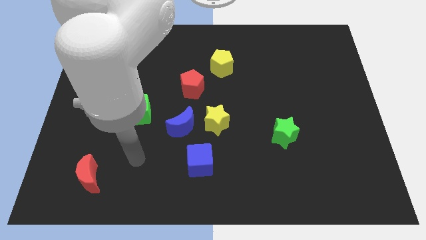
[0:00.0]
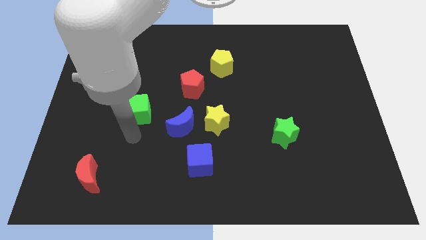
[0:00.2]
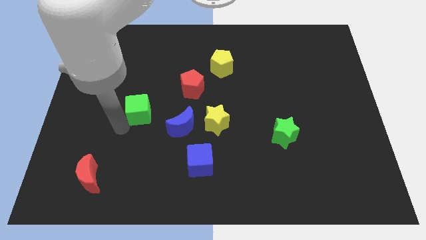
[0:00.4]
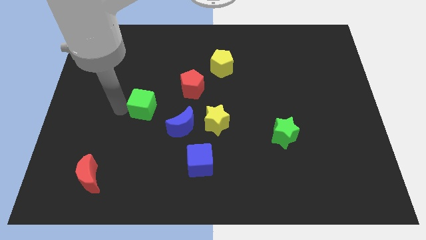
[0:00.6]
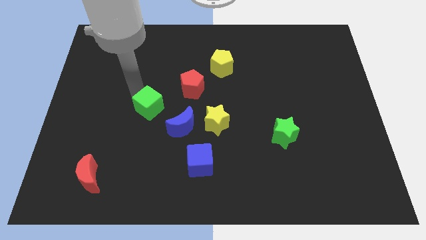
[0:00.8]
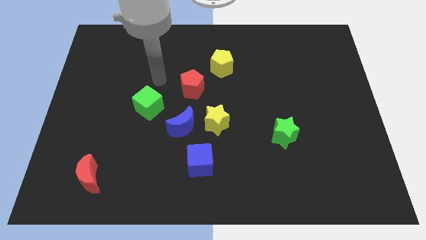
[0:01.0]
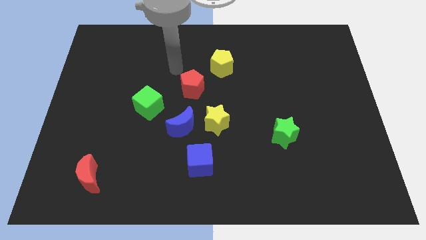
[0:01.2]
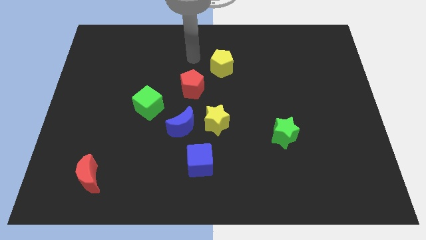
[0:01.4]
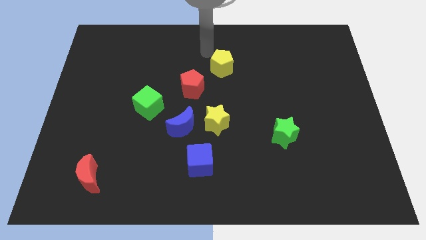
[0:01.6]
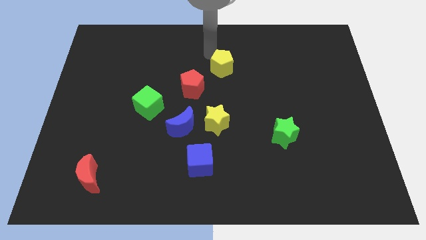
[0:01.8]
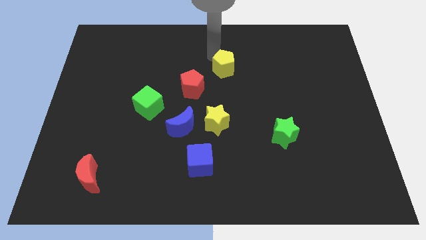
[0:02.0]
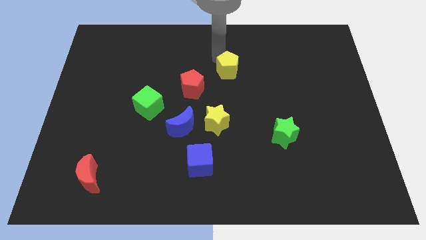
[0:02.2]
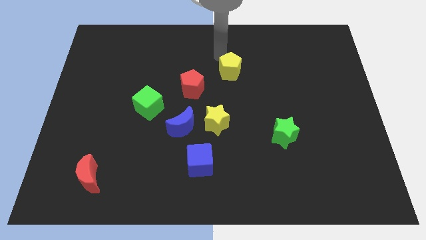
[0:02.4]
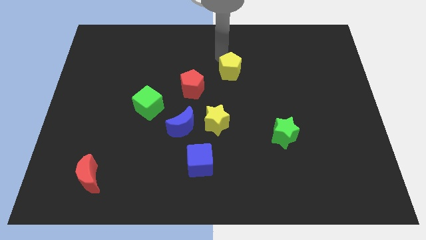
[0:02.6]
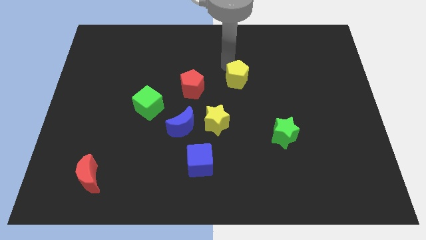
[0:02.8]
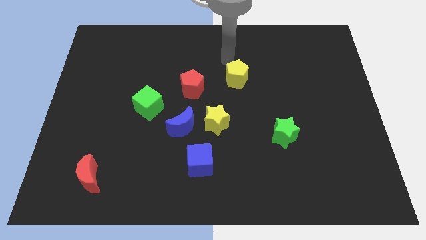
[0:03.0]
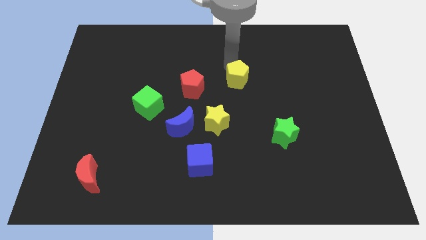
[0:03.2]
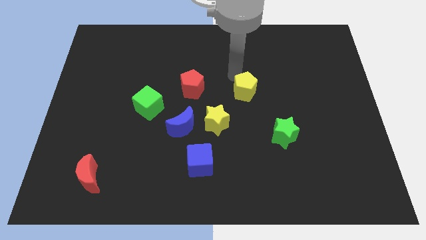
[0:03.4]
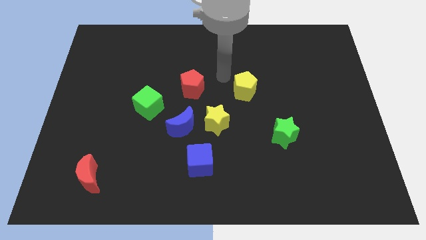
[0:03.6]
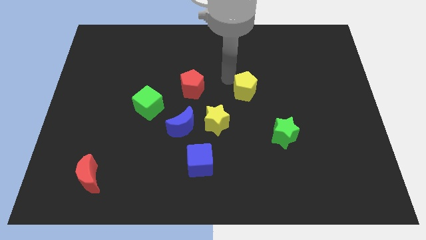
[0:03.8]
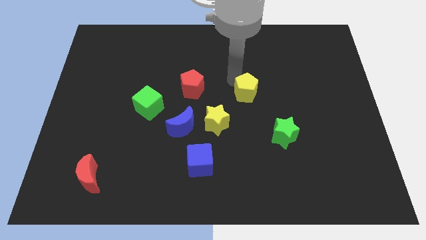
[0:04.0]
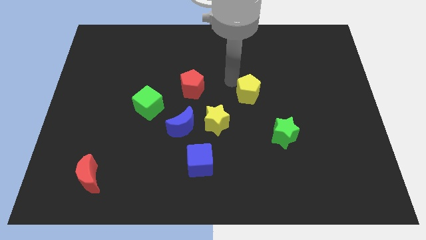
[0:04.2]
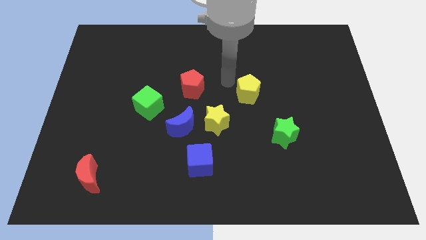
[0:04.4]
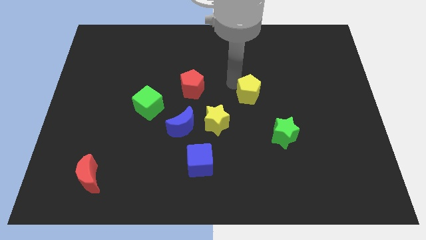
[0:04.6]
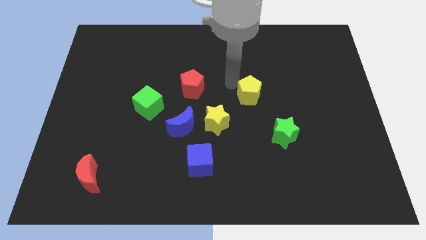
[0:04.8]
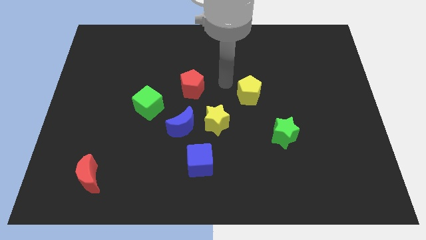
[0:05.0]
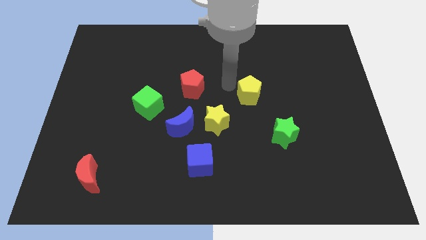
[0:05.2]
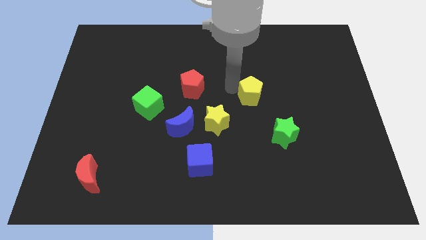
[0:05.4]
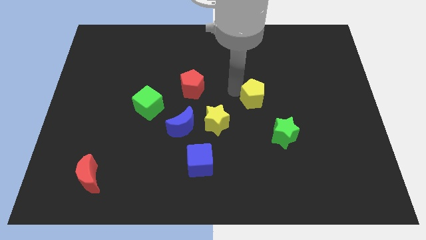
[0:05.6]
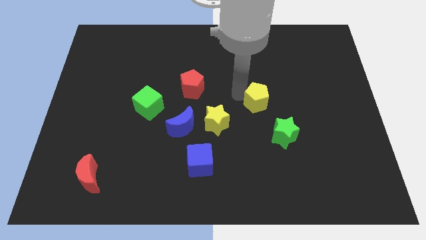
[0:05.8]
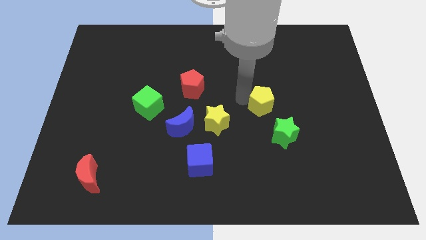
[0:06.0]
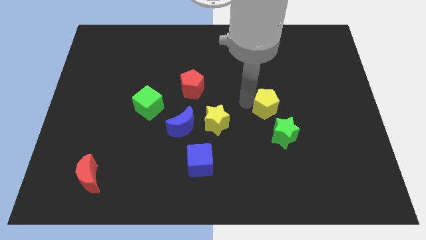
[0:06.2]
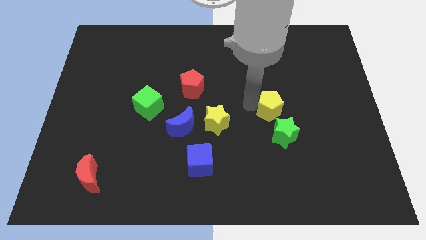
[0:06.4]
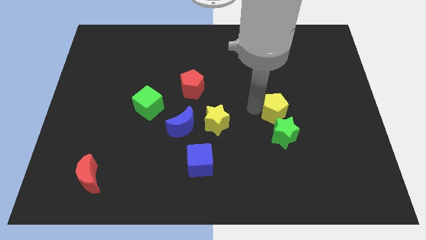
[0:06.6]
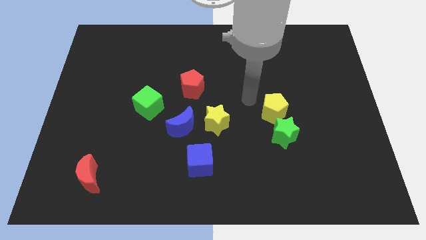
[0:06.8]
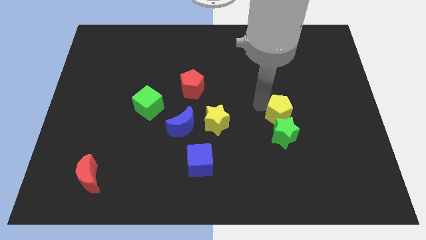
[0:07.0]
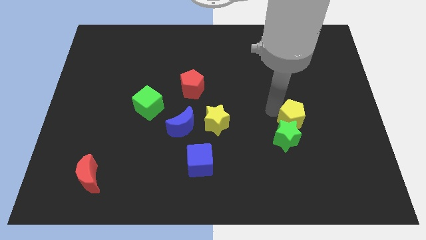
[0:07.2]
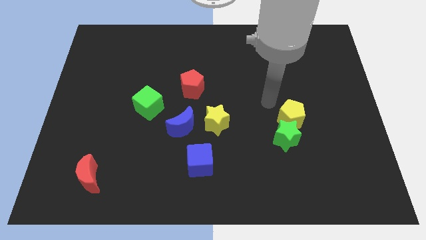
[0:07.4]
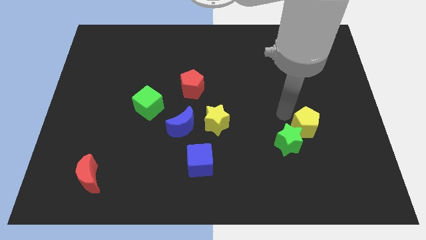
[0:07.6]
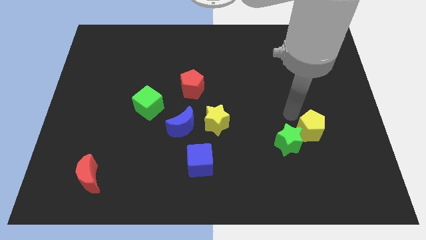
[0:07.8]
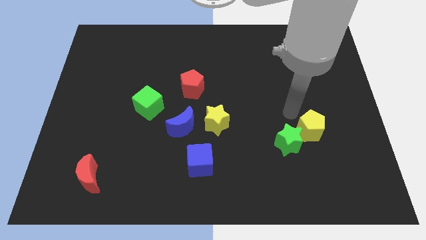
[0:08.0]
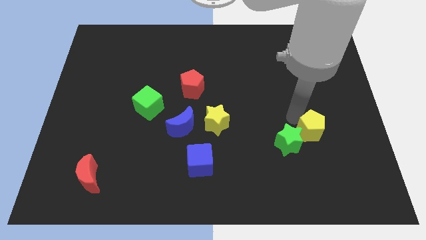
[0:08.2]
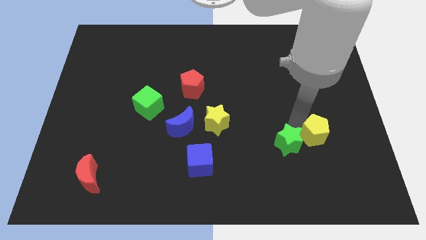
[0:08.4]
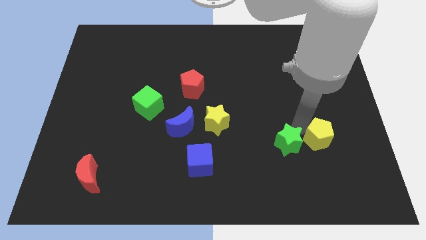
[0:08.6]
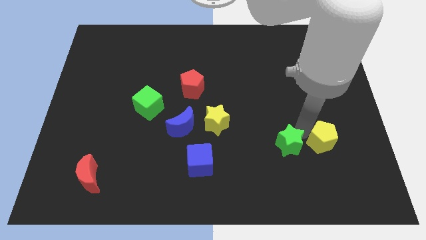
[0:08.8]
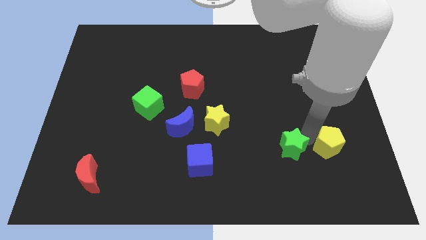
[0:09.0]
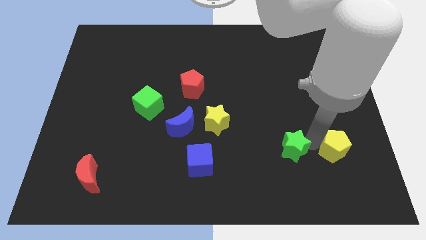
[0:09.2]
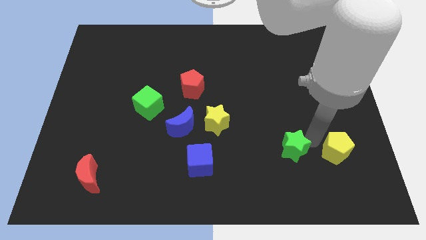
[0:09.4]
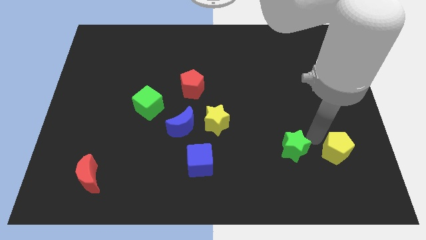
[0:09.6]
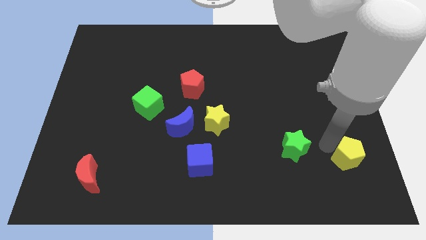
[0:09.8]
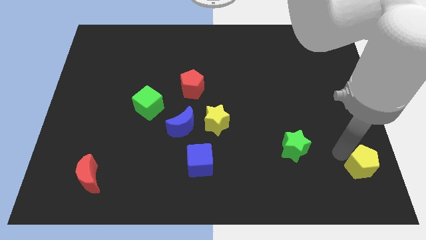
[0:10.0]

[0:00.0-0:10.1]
push the yellow pentagon to the bottom right

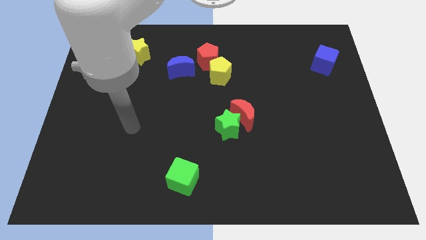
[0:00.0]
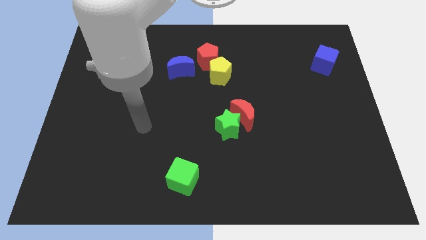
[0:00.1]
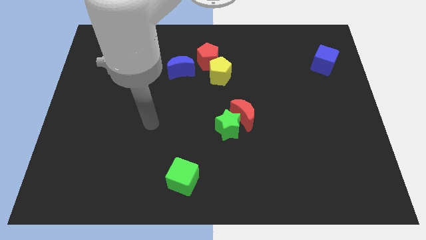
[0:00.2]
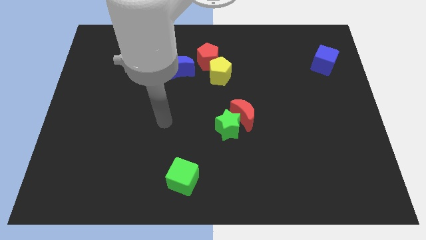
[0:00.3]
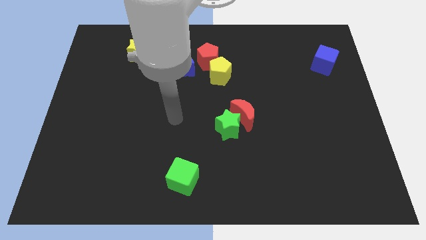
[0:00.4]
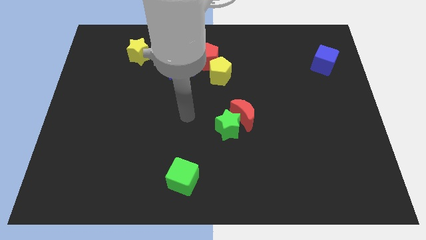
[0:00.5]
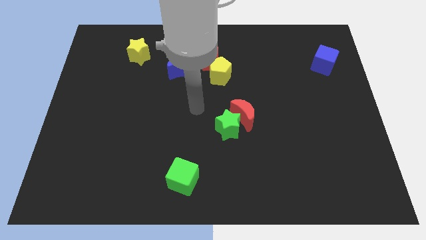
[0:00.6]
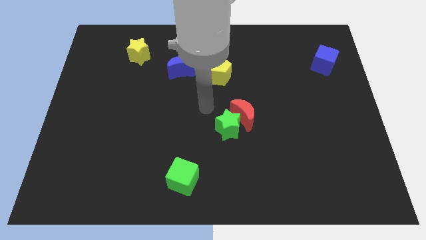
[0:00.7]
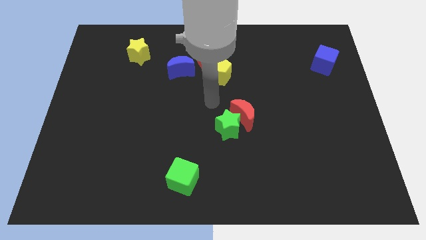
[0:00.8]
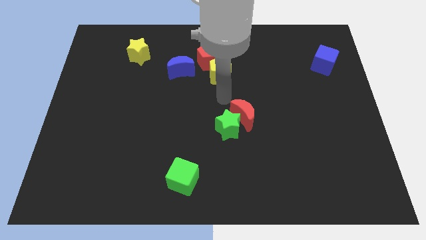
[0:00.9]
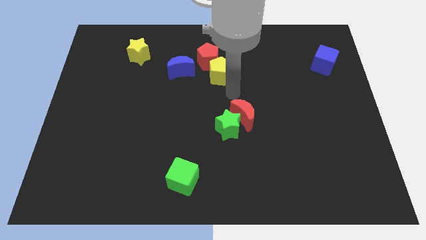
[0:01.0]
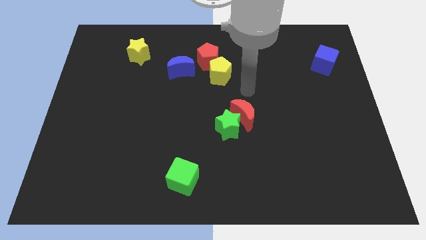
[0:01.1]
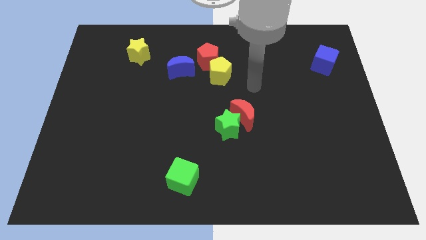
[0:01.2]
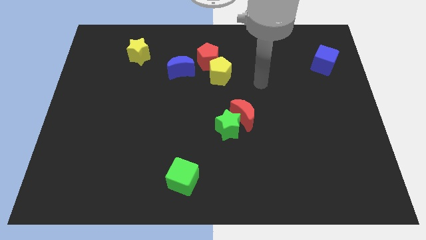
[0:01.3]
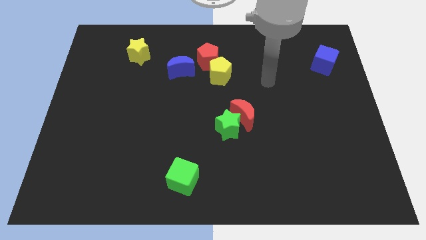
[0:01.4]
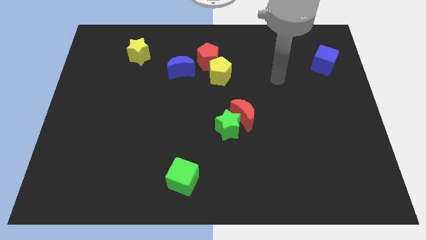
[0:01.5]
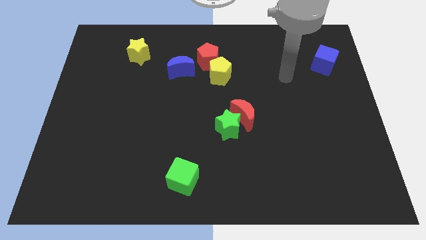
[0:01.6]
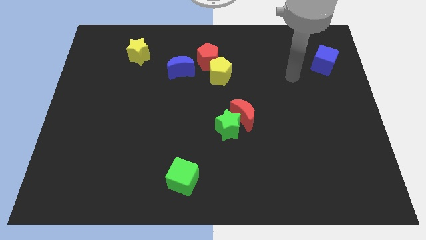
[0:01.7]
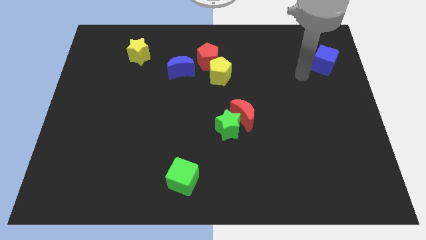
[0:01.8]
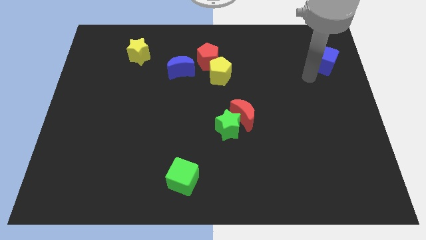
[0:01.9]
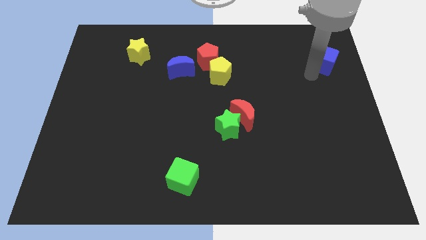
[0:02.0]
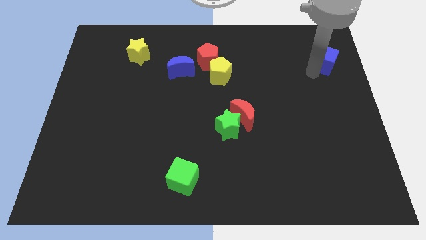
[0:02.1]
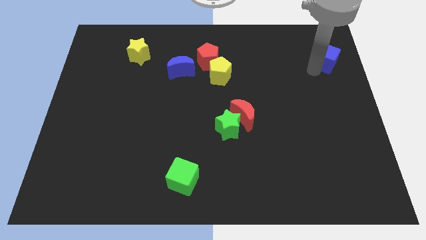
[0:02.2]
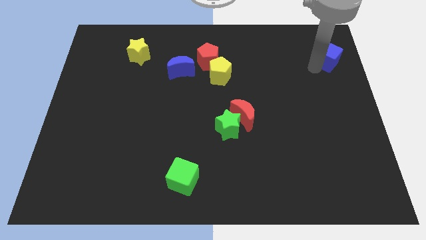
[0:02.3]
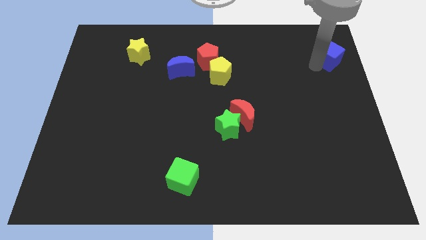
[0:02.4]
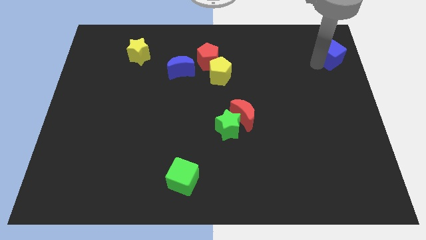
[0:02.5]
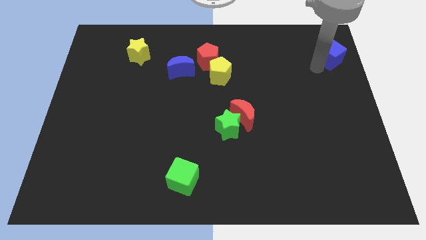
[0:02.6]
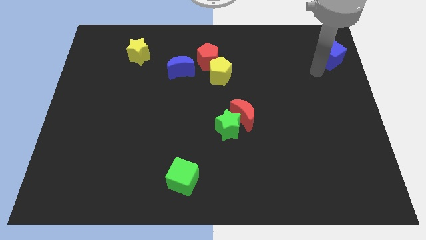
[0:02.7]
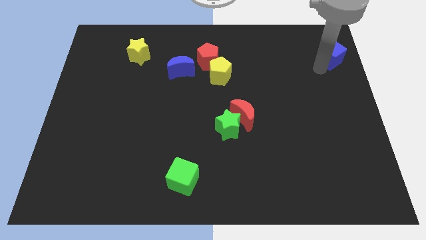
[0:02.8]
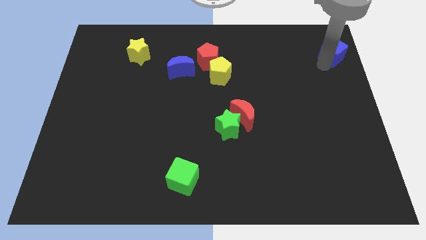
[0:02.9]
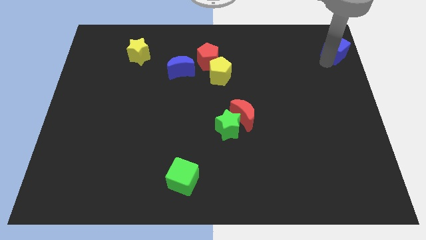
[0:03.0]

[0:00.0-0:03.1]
put the blue cube to the top right corner

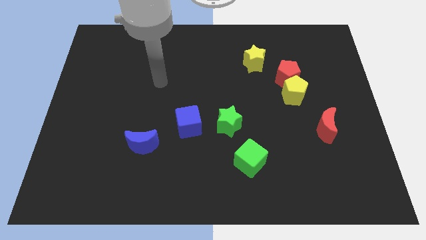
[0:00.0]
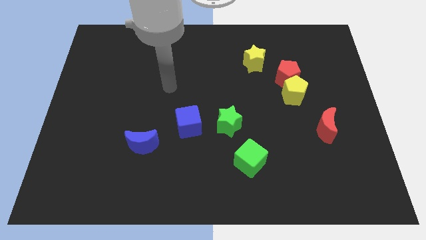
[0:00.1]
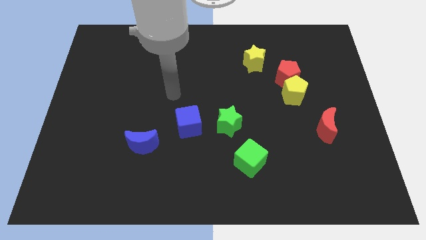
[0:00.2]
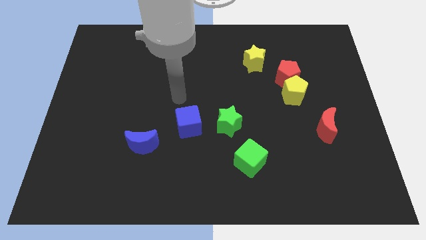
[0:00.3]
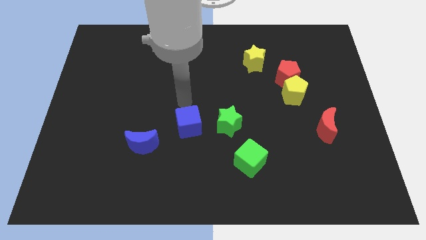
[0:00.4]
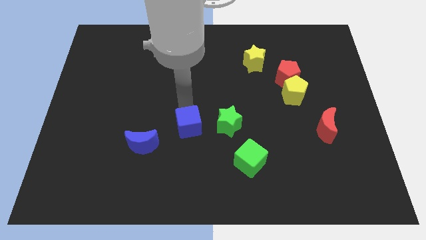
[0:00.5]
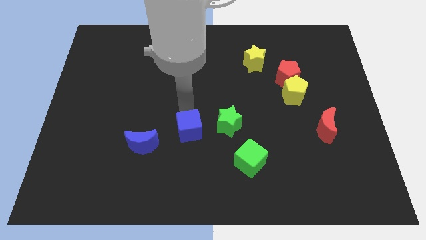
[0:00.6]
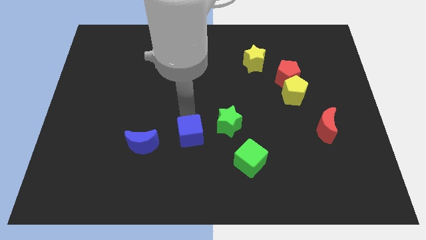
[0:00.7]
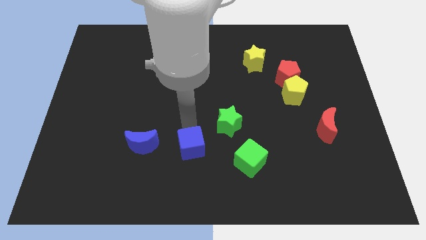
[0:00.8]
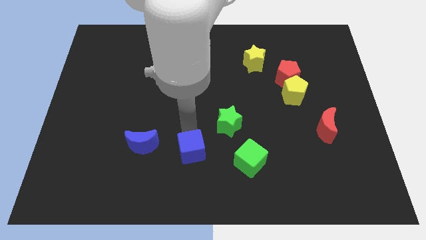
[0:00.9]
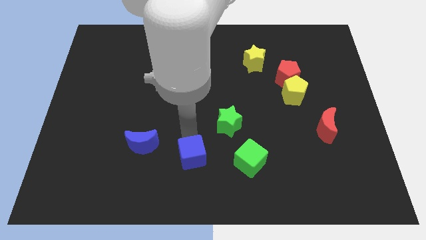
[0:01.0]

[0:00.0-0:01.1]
move the blue cube to the bottom side
